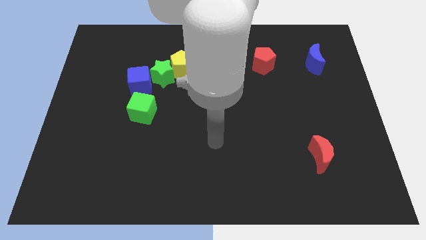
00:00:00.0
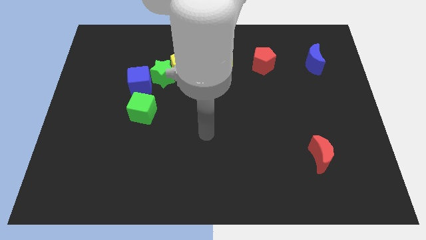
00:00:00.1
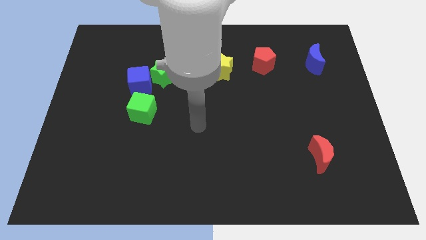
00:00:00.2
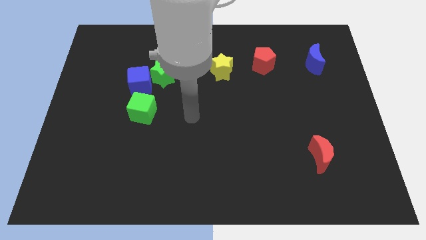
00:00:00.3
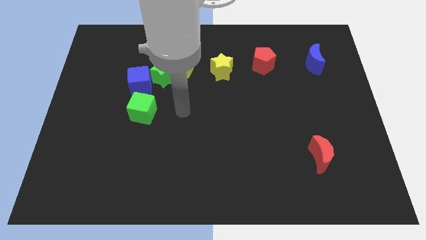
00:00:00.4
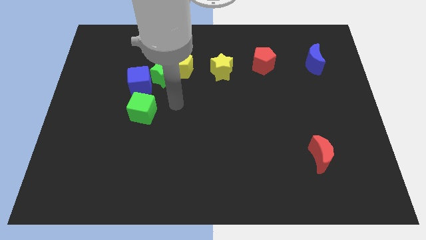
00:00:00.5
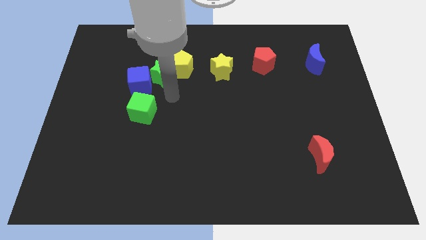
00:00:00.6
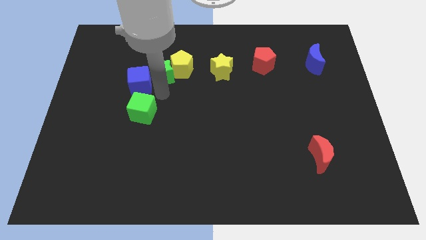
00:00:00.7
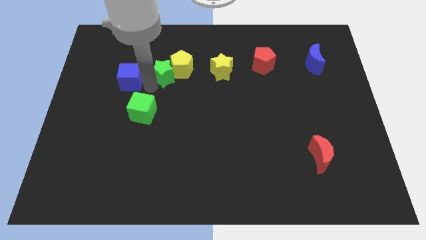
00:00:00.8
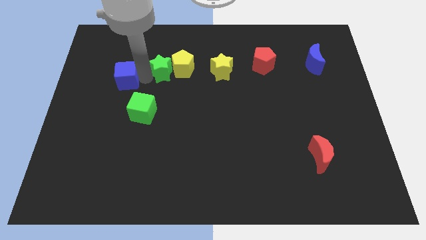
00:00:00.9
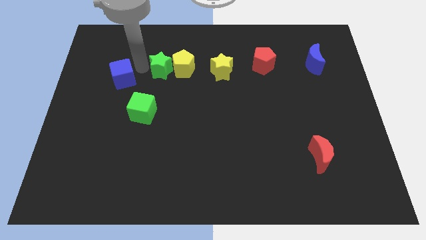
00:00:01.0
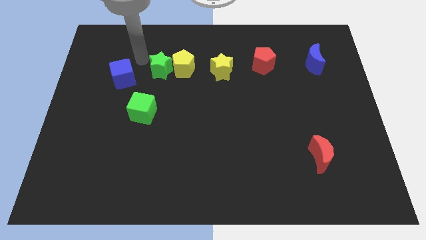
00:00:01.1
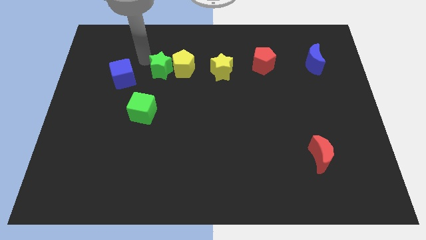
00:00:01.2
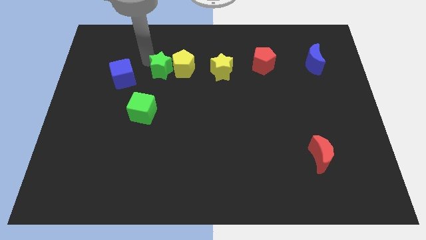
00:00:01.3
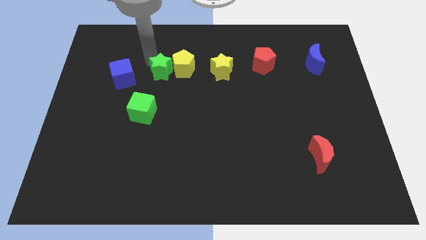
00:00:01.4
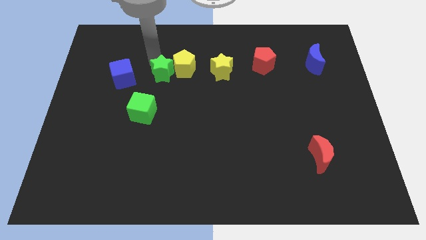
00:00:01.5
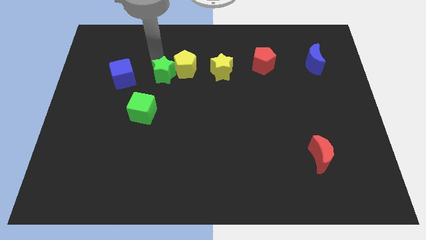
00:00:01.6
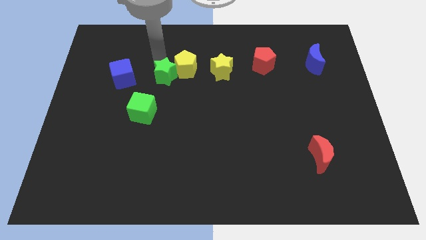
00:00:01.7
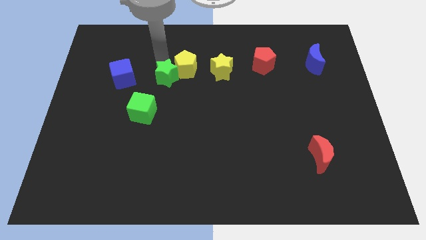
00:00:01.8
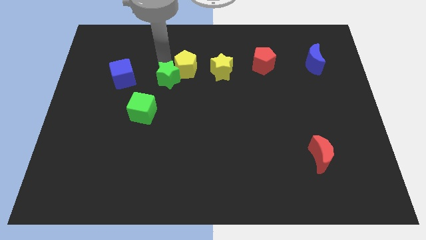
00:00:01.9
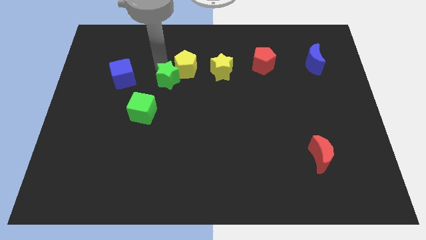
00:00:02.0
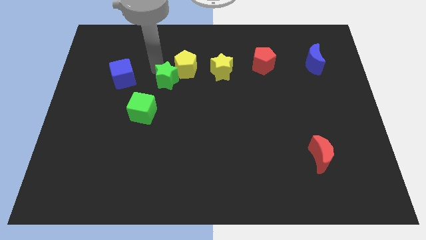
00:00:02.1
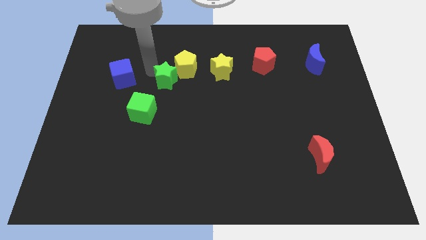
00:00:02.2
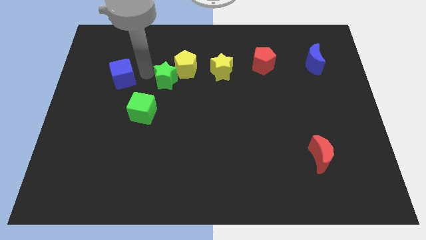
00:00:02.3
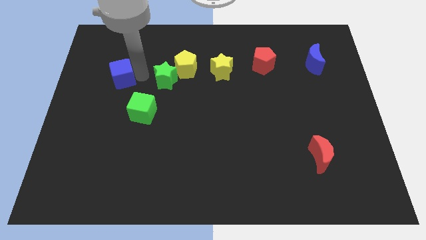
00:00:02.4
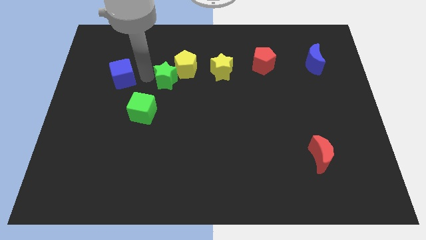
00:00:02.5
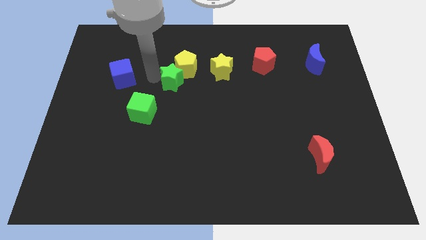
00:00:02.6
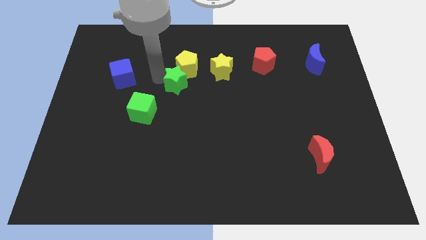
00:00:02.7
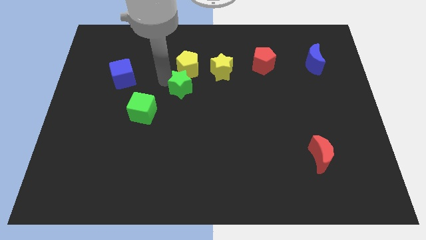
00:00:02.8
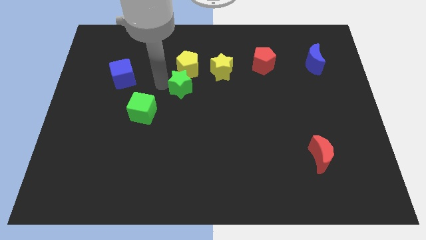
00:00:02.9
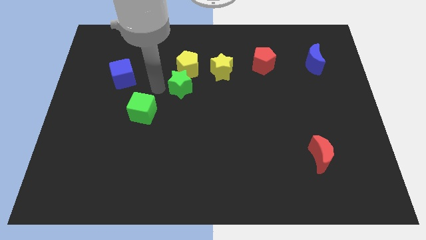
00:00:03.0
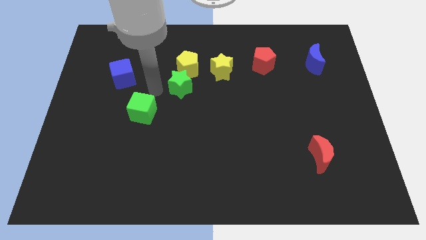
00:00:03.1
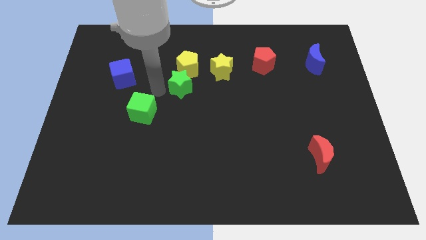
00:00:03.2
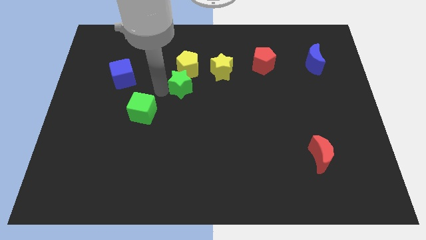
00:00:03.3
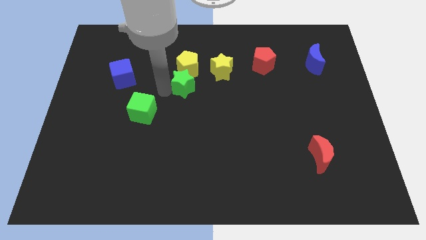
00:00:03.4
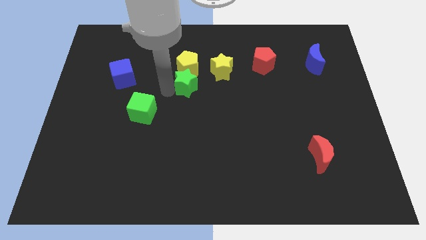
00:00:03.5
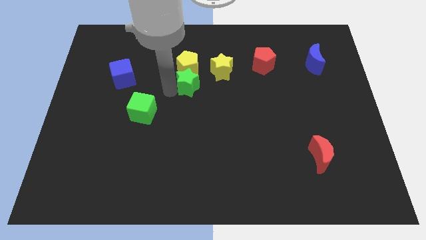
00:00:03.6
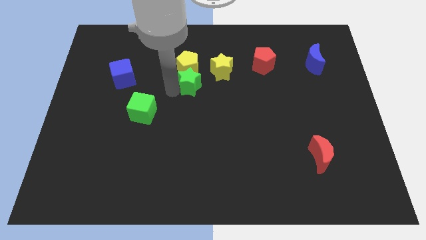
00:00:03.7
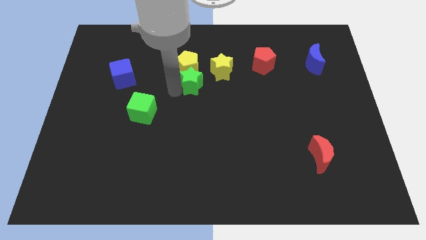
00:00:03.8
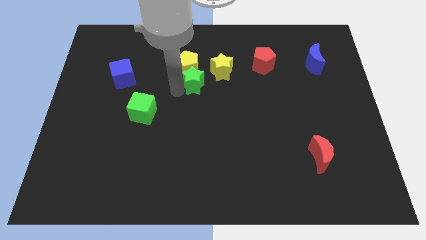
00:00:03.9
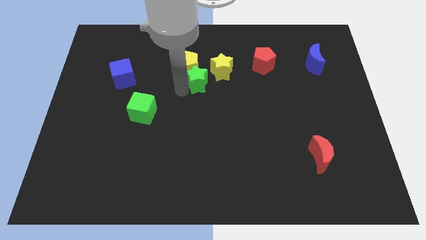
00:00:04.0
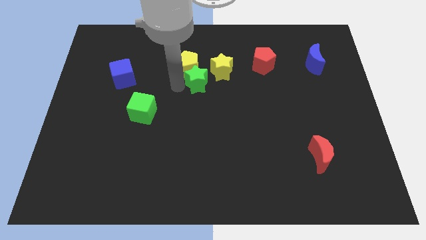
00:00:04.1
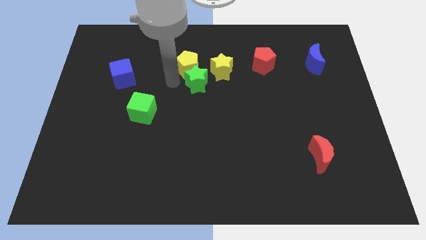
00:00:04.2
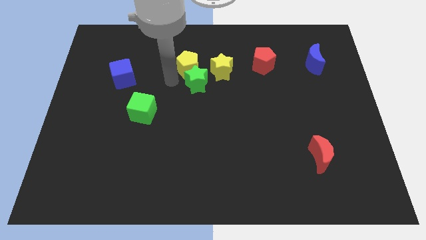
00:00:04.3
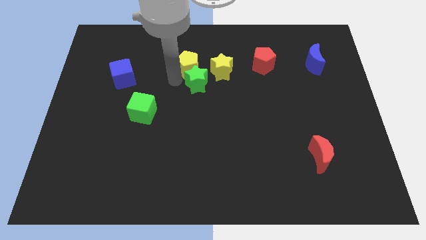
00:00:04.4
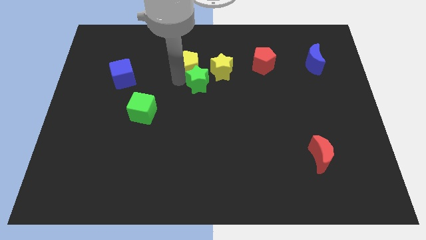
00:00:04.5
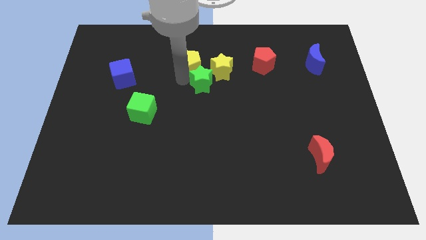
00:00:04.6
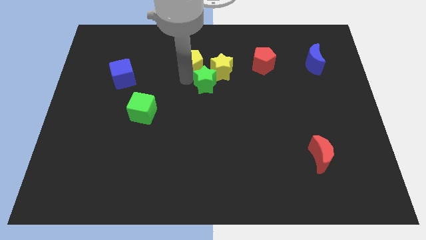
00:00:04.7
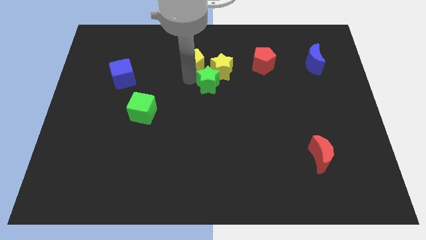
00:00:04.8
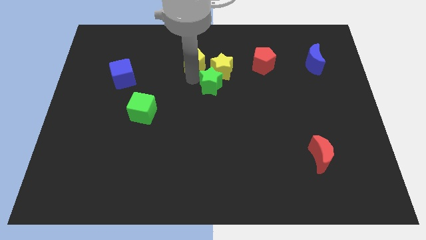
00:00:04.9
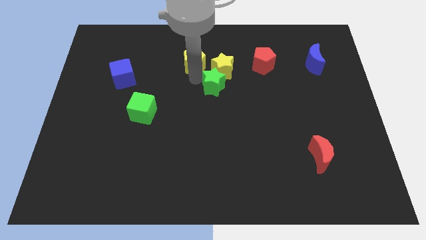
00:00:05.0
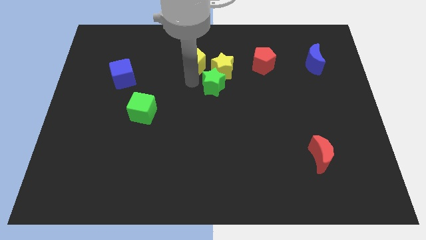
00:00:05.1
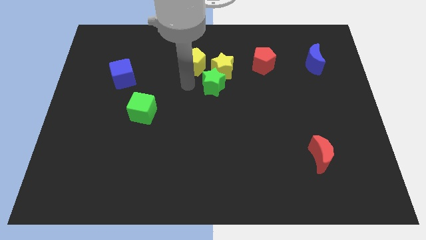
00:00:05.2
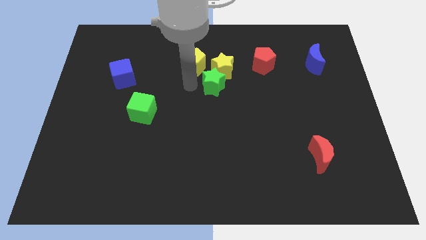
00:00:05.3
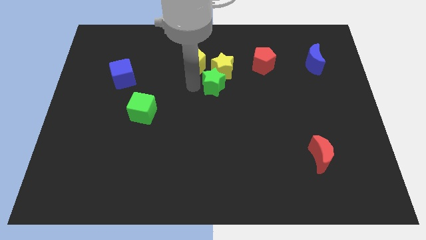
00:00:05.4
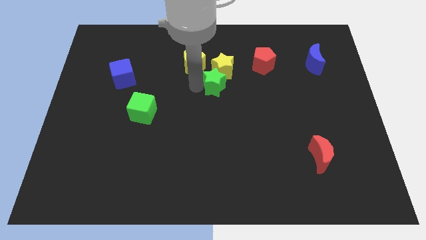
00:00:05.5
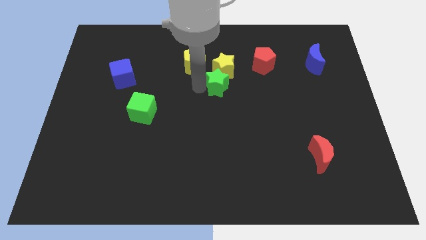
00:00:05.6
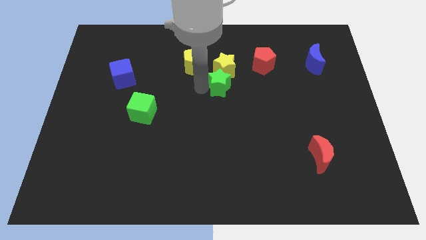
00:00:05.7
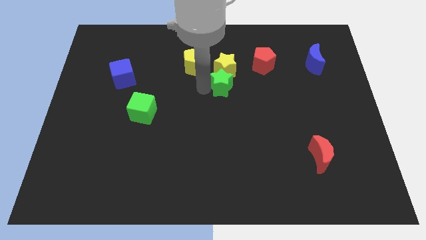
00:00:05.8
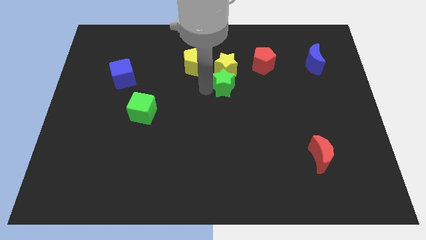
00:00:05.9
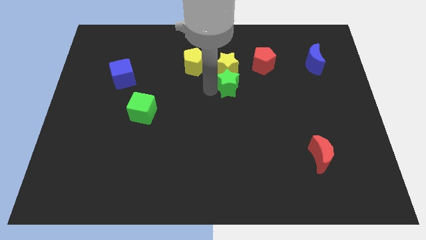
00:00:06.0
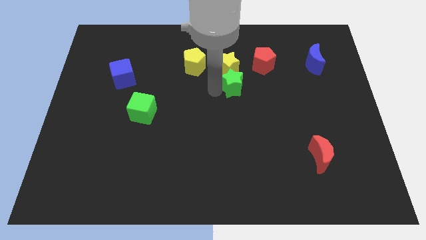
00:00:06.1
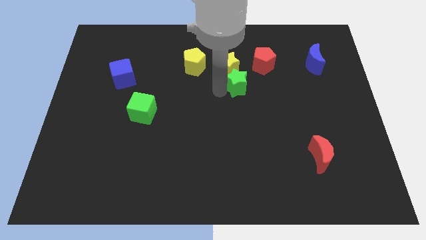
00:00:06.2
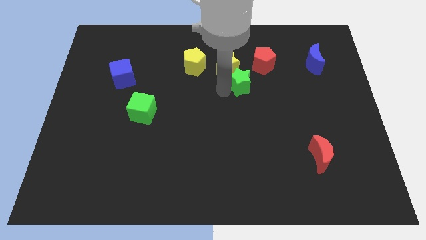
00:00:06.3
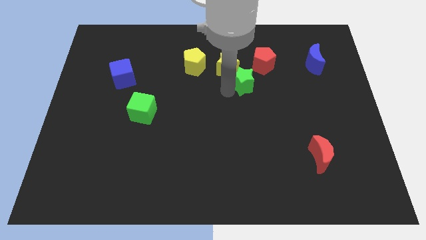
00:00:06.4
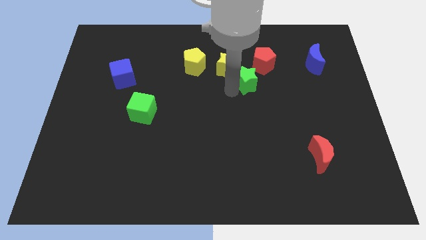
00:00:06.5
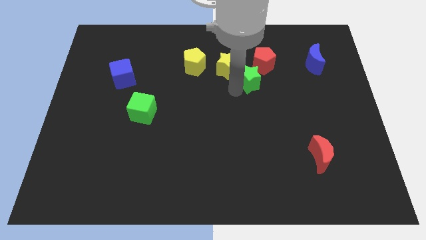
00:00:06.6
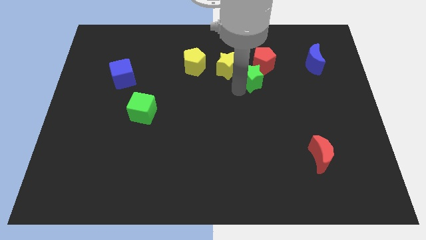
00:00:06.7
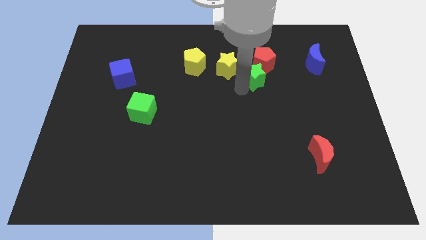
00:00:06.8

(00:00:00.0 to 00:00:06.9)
slide the green star towards the red pentagon

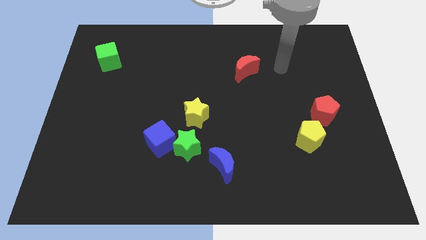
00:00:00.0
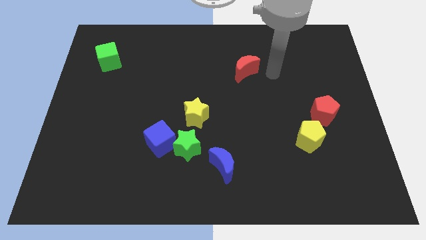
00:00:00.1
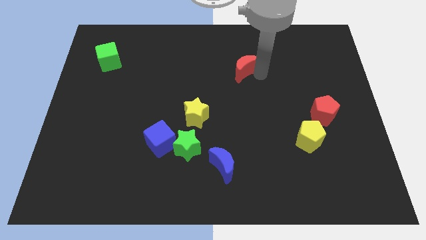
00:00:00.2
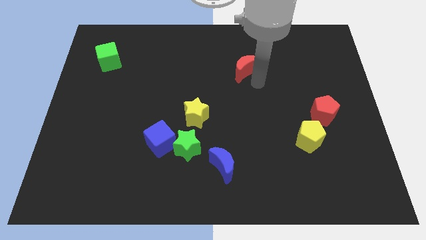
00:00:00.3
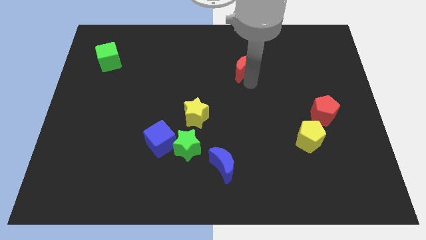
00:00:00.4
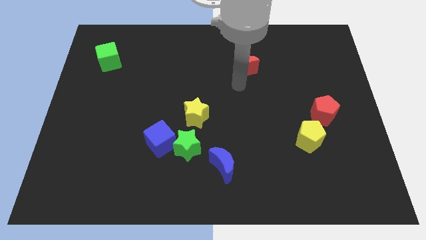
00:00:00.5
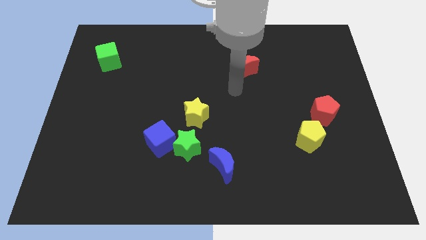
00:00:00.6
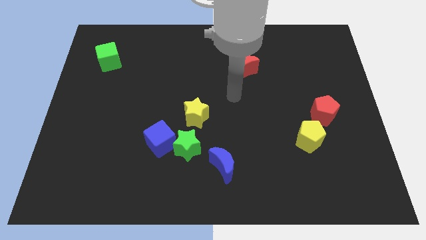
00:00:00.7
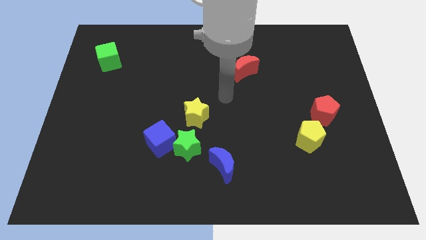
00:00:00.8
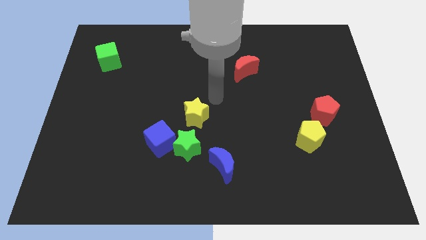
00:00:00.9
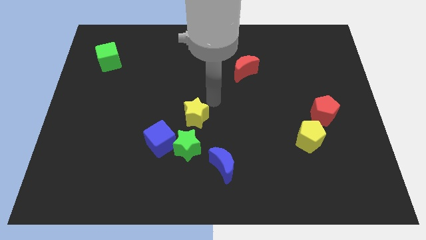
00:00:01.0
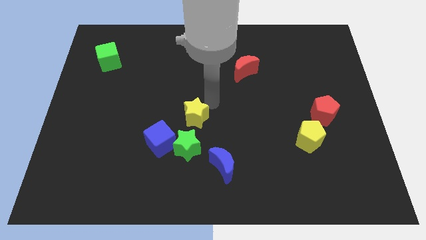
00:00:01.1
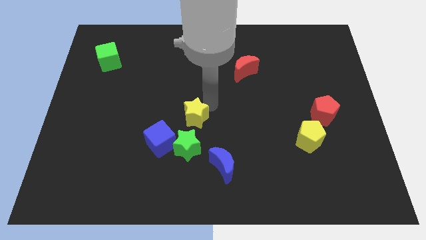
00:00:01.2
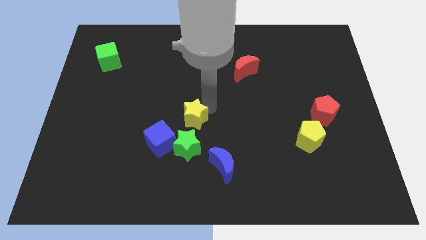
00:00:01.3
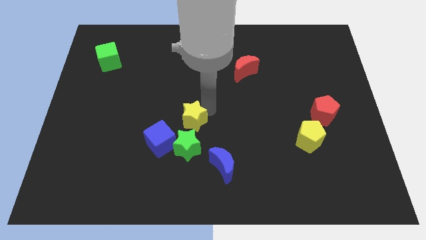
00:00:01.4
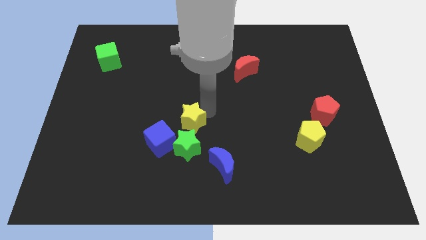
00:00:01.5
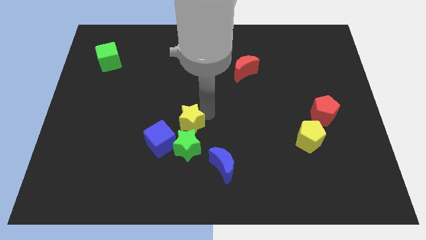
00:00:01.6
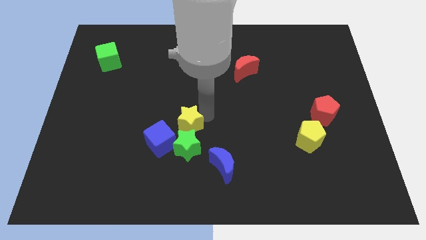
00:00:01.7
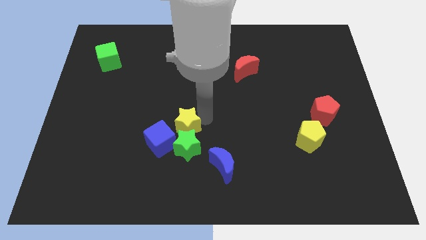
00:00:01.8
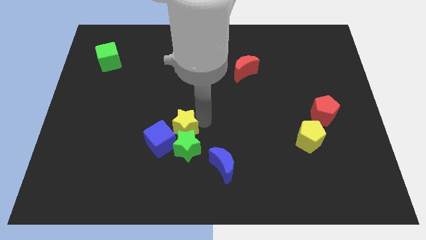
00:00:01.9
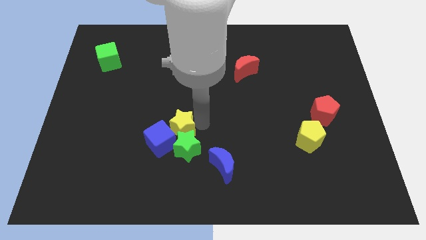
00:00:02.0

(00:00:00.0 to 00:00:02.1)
slide the yellow star to the blue cube
